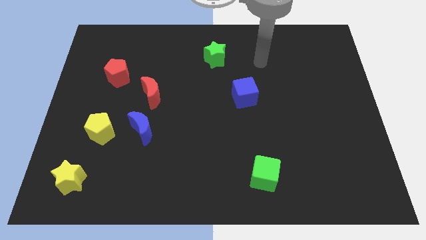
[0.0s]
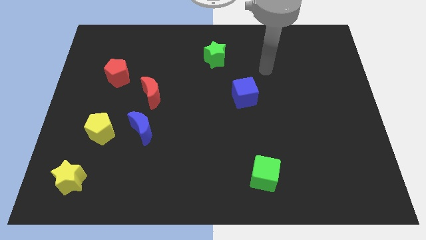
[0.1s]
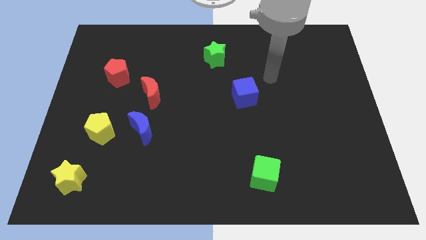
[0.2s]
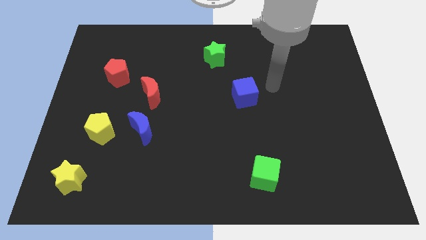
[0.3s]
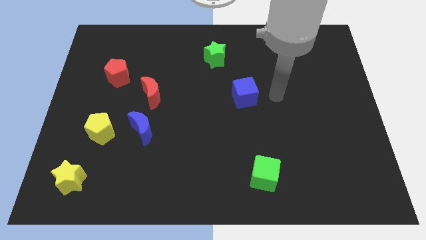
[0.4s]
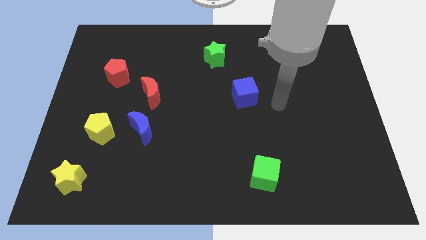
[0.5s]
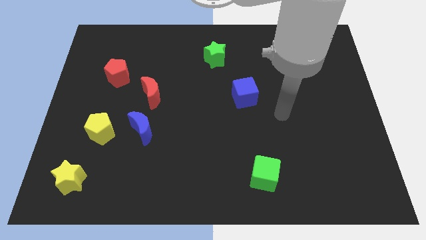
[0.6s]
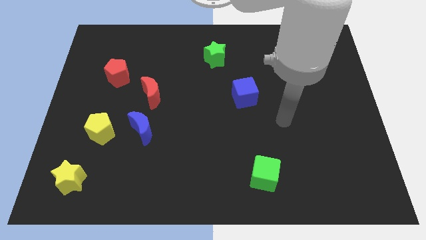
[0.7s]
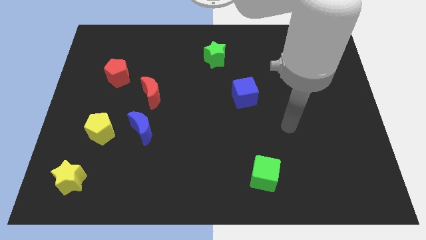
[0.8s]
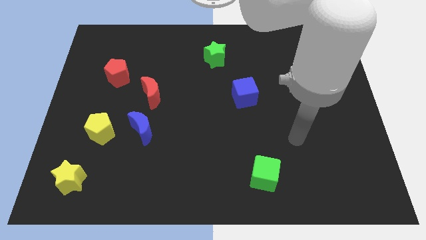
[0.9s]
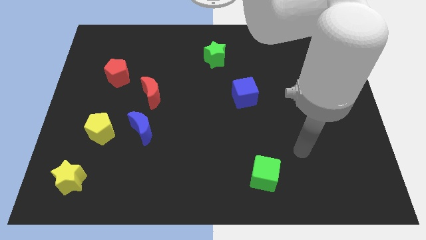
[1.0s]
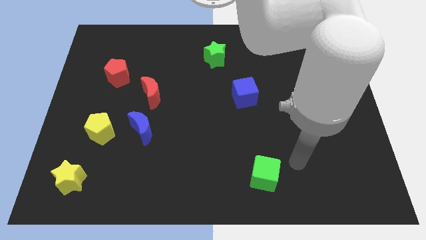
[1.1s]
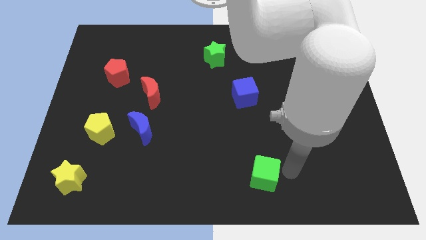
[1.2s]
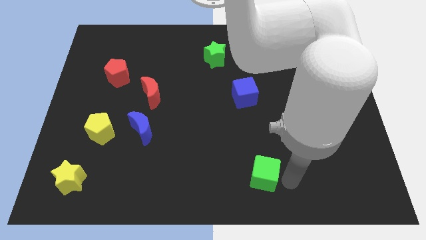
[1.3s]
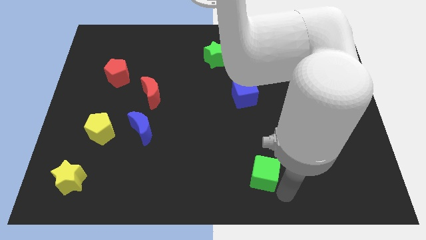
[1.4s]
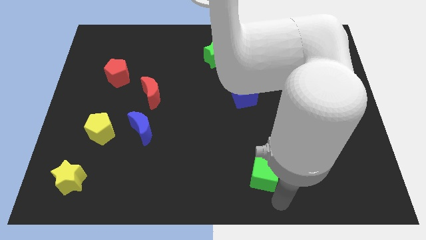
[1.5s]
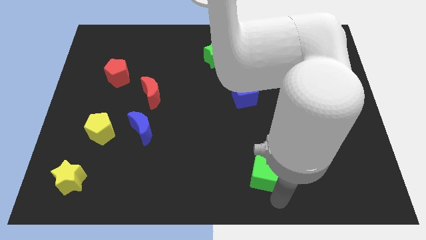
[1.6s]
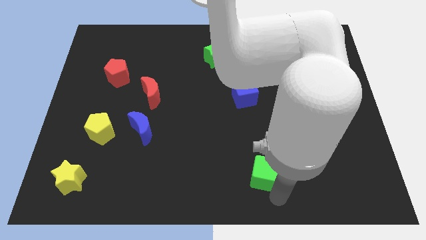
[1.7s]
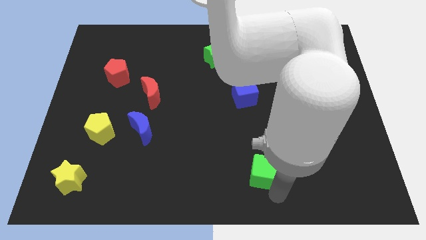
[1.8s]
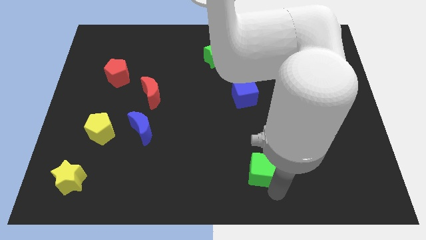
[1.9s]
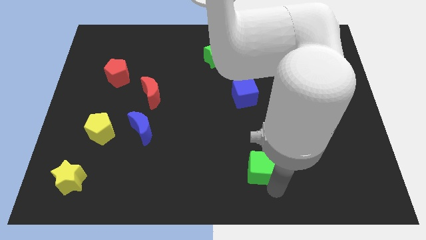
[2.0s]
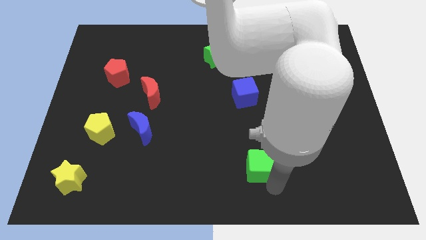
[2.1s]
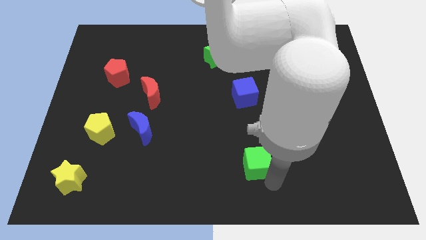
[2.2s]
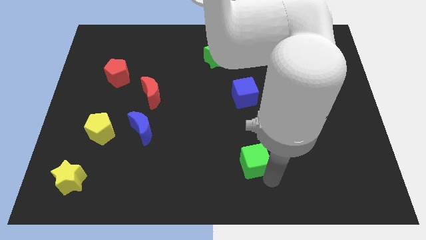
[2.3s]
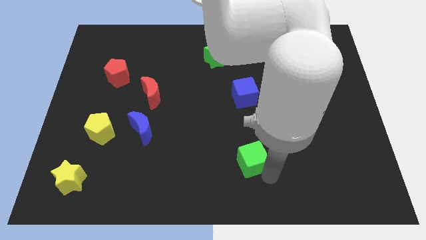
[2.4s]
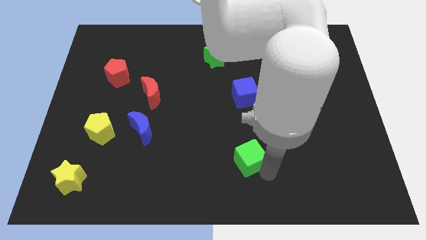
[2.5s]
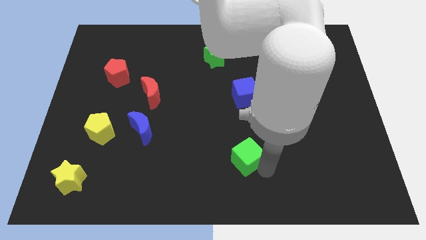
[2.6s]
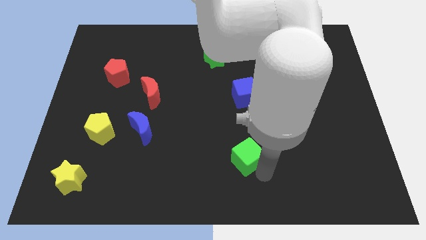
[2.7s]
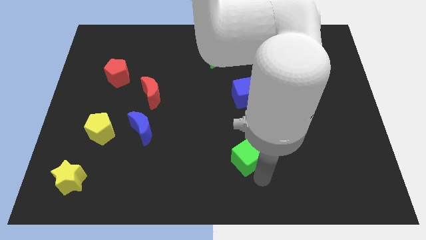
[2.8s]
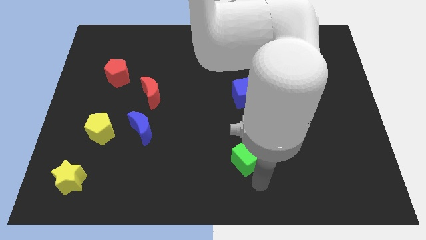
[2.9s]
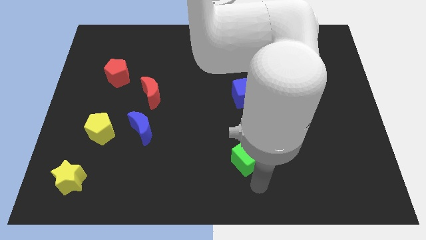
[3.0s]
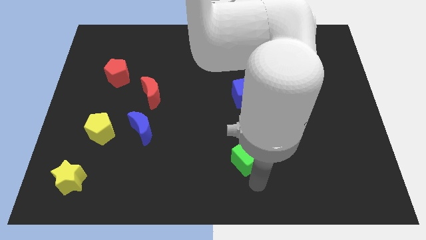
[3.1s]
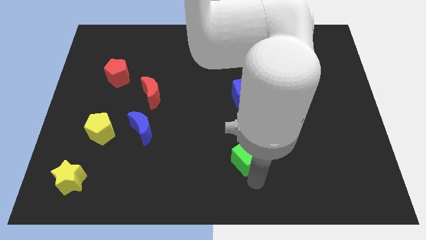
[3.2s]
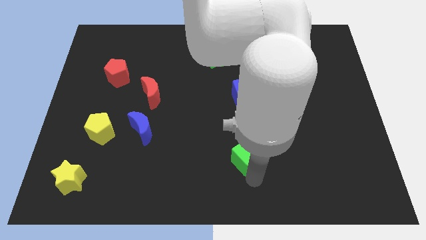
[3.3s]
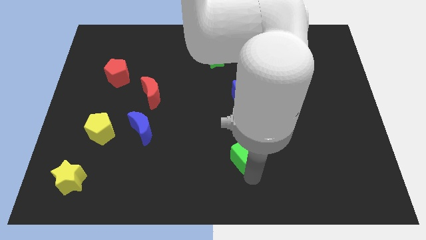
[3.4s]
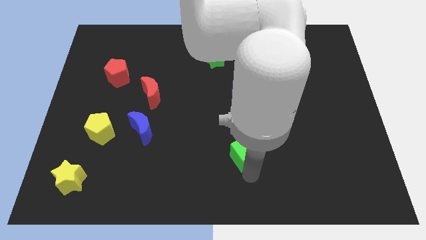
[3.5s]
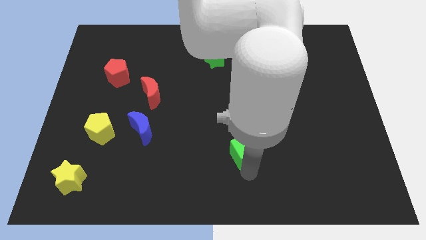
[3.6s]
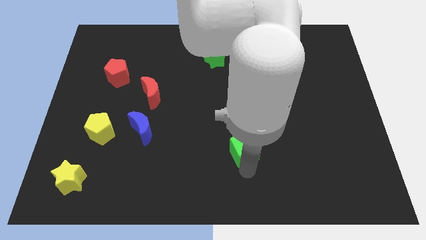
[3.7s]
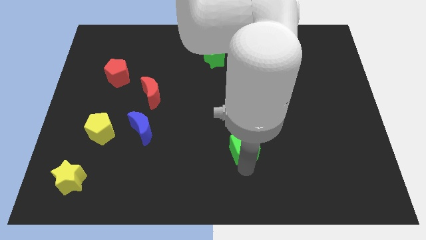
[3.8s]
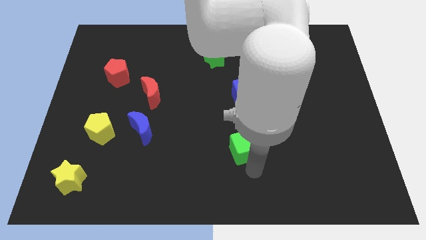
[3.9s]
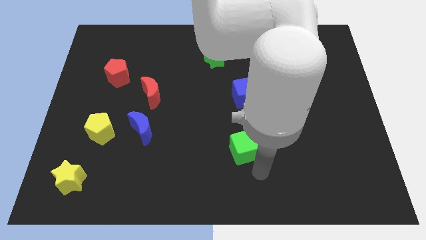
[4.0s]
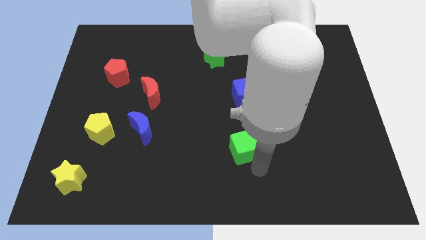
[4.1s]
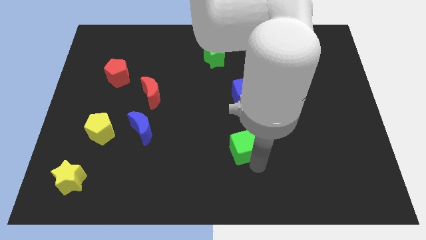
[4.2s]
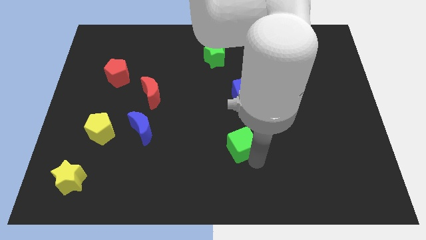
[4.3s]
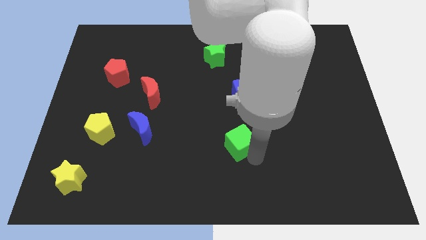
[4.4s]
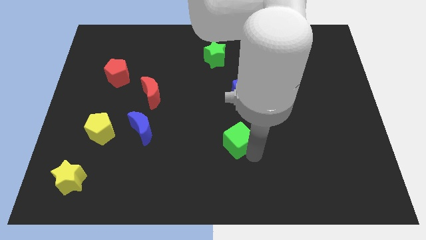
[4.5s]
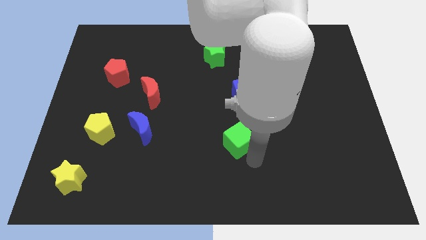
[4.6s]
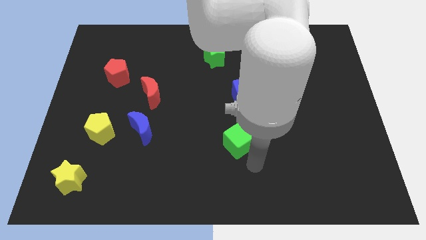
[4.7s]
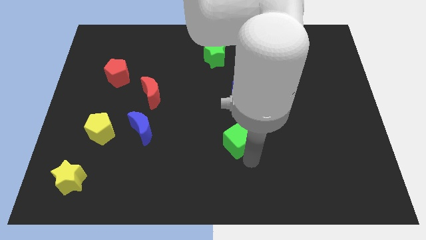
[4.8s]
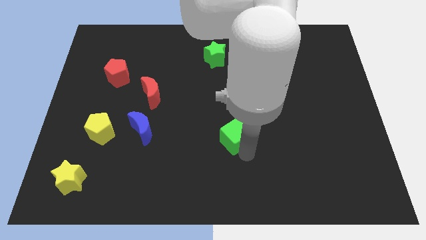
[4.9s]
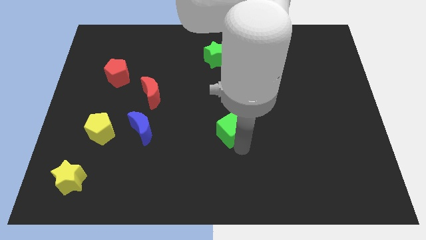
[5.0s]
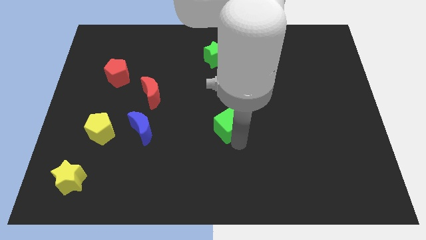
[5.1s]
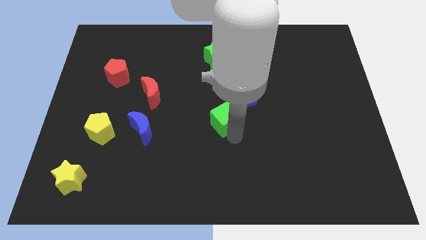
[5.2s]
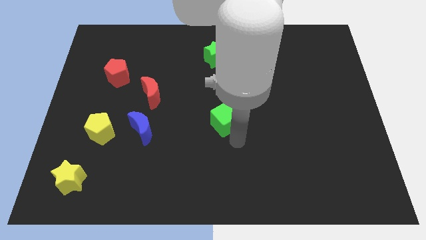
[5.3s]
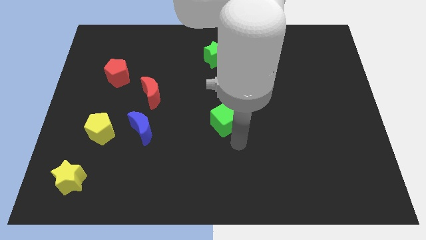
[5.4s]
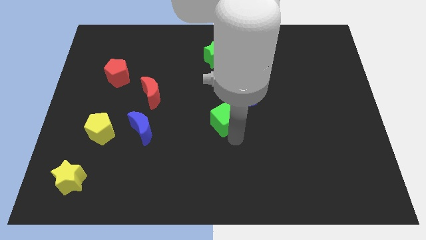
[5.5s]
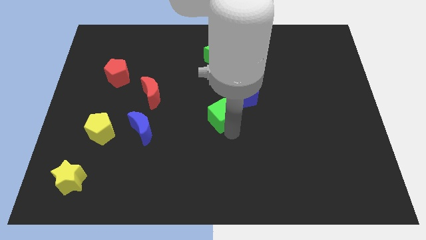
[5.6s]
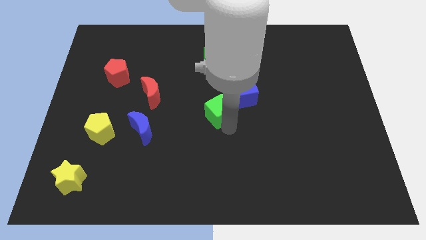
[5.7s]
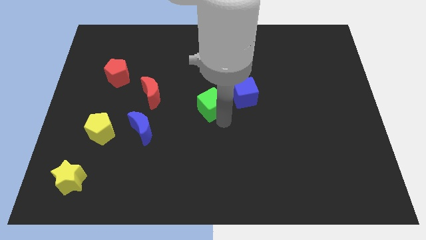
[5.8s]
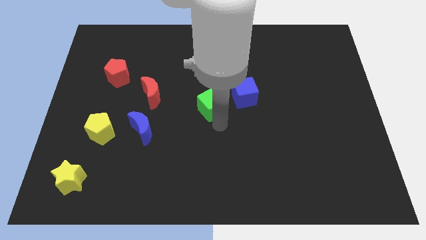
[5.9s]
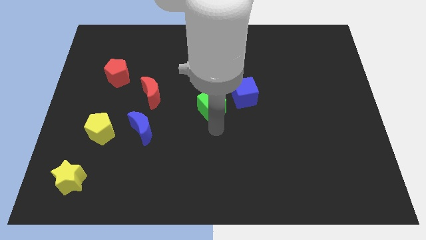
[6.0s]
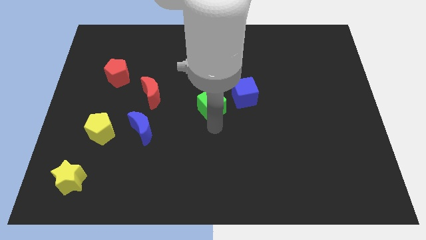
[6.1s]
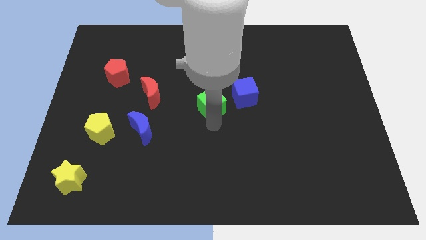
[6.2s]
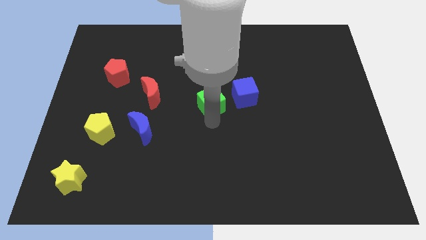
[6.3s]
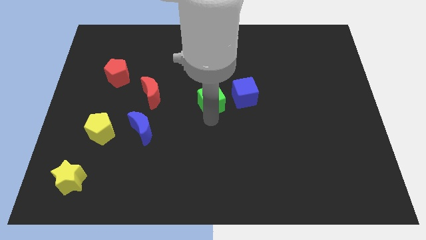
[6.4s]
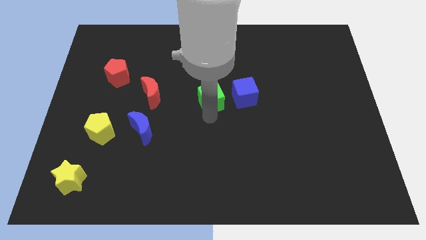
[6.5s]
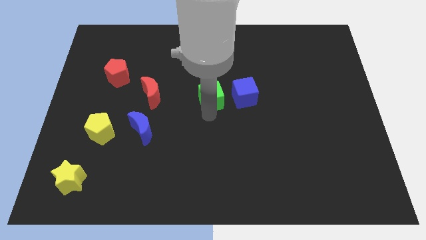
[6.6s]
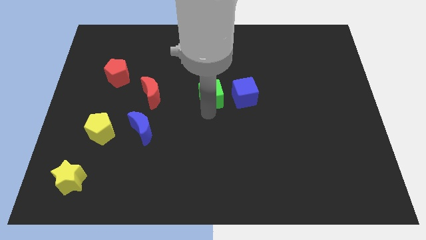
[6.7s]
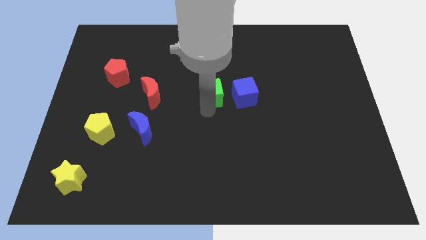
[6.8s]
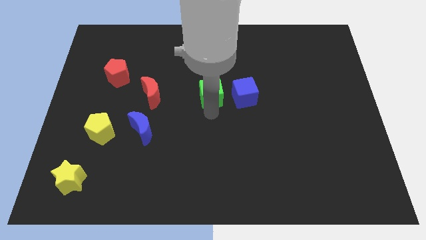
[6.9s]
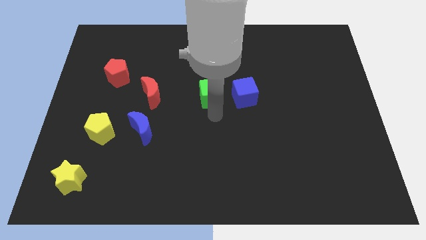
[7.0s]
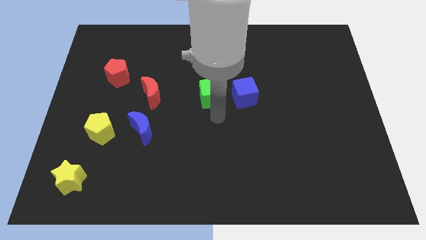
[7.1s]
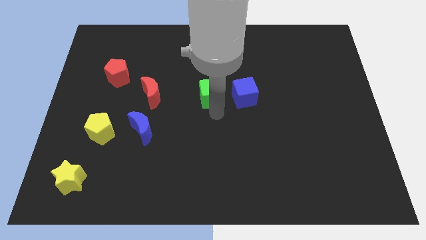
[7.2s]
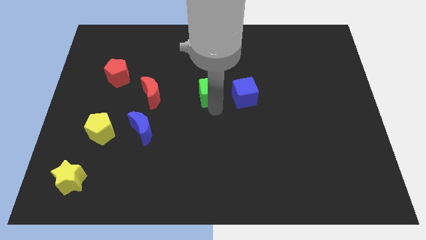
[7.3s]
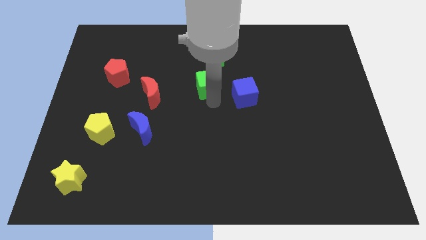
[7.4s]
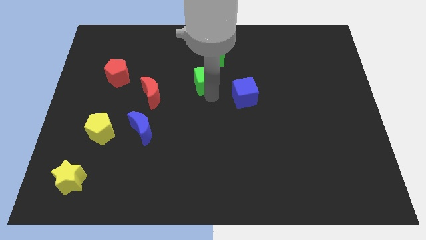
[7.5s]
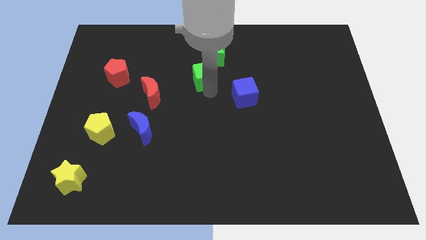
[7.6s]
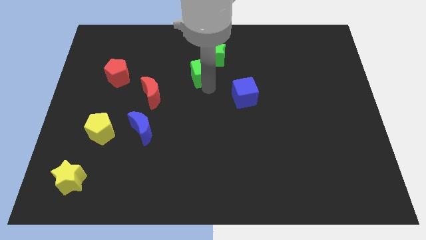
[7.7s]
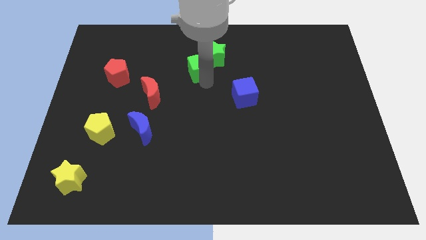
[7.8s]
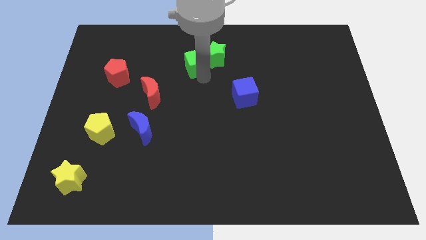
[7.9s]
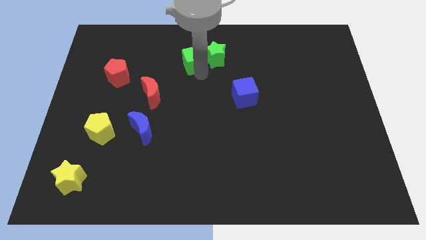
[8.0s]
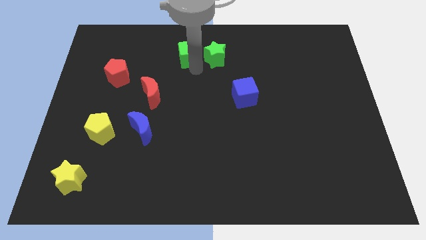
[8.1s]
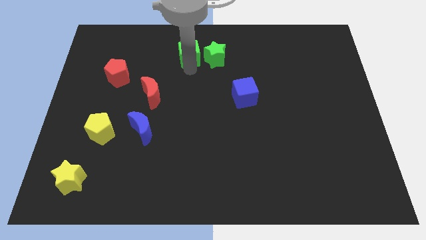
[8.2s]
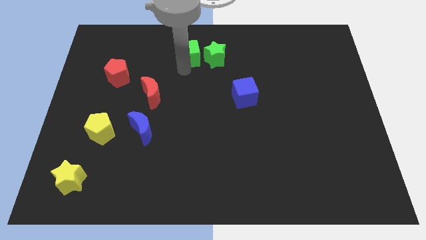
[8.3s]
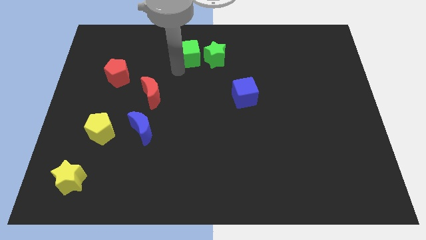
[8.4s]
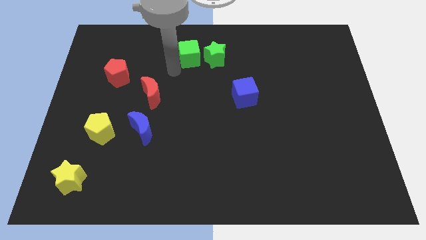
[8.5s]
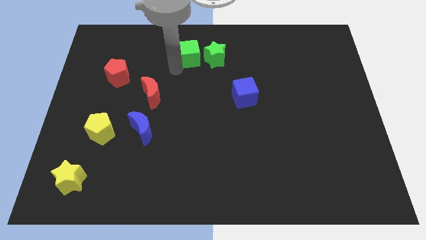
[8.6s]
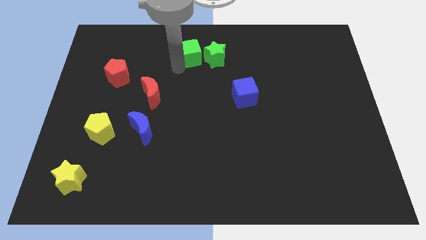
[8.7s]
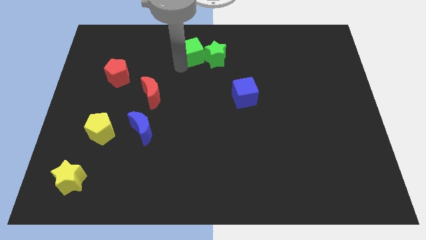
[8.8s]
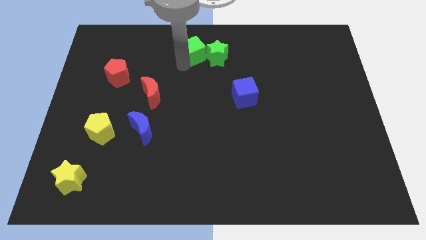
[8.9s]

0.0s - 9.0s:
move the green cube to the towards your base
